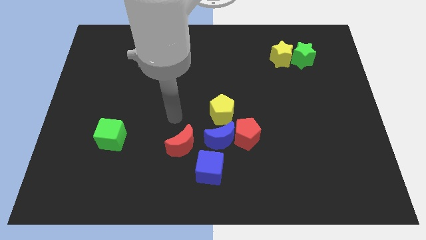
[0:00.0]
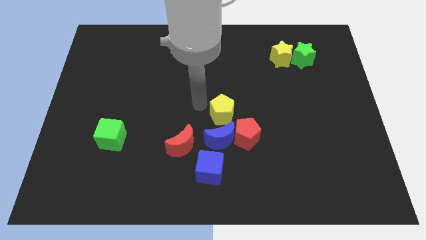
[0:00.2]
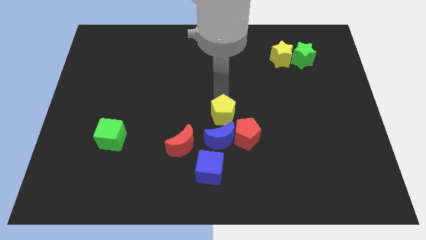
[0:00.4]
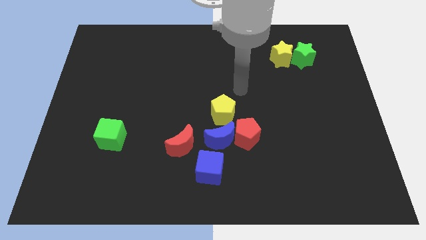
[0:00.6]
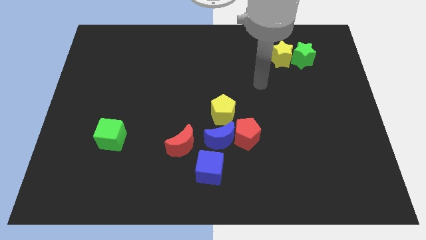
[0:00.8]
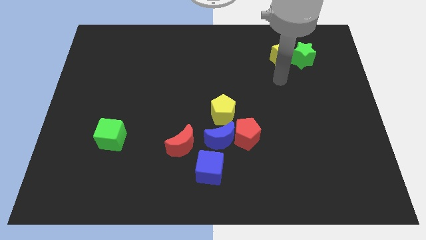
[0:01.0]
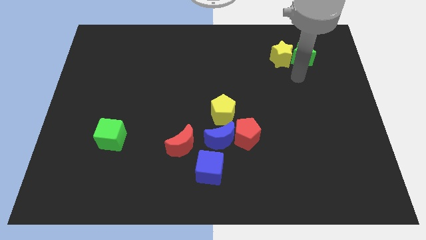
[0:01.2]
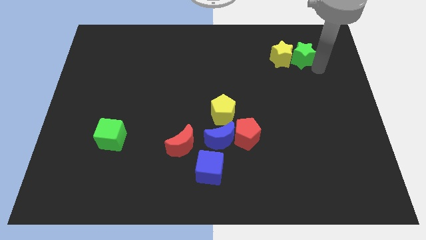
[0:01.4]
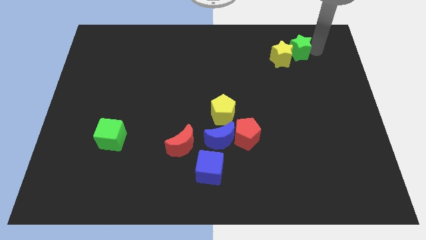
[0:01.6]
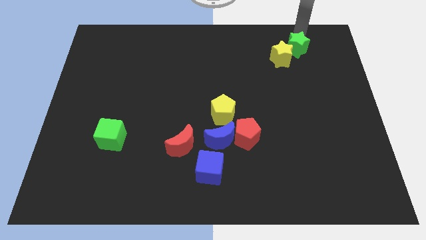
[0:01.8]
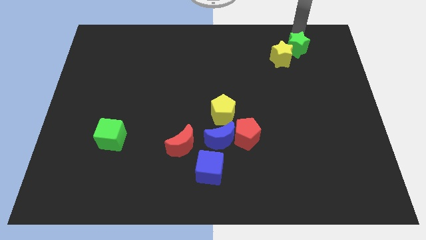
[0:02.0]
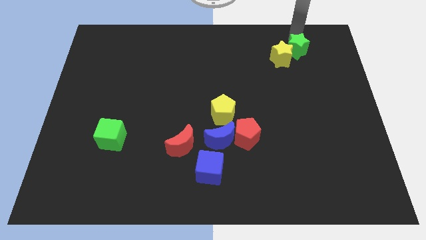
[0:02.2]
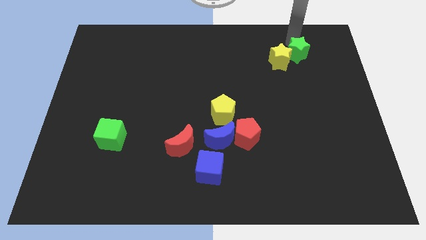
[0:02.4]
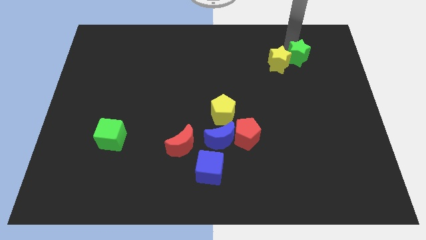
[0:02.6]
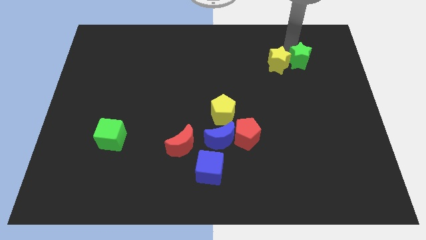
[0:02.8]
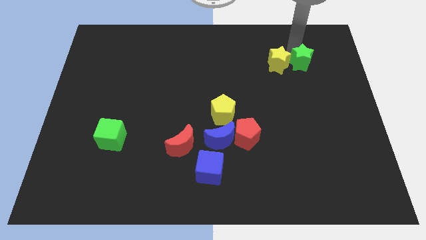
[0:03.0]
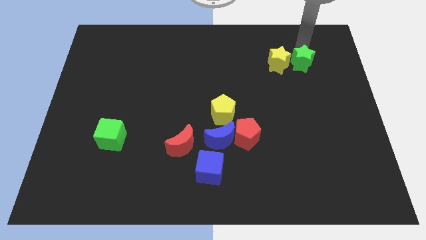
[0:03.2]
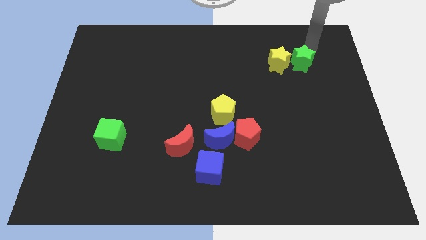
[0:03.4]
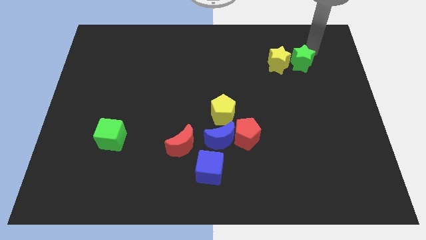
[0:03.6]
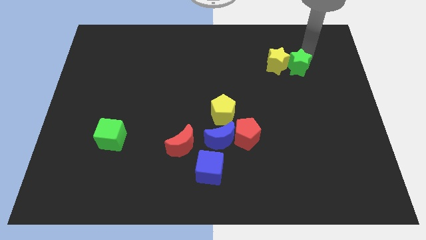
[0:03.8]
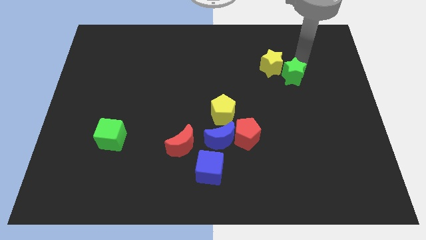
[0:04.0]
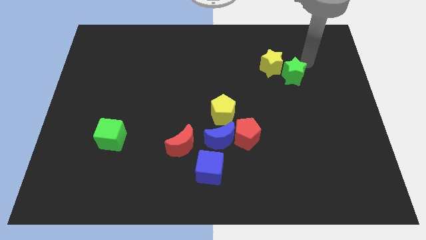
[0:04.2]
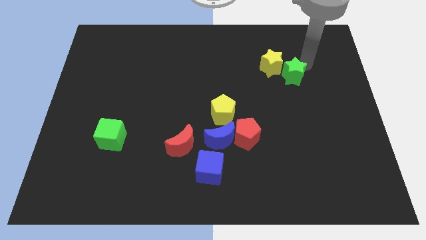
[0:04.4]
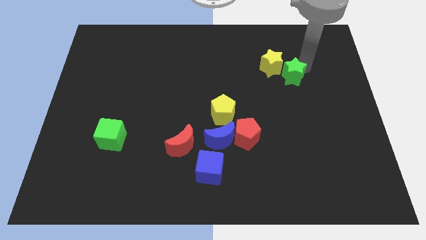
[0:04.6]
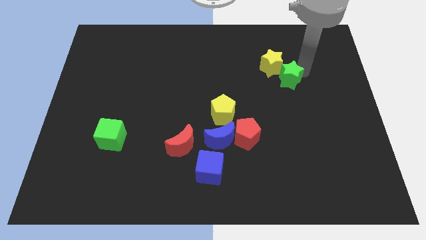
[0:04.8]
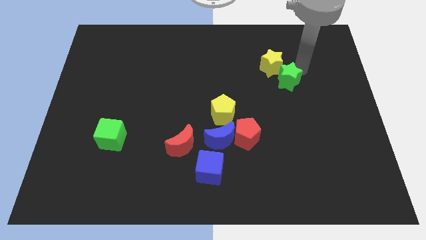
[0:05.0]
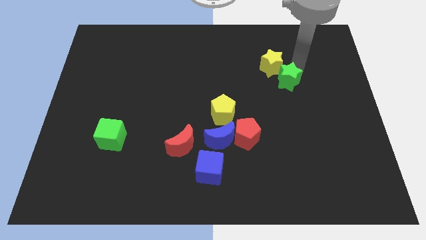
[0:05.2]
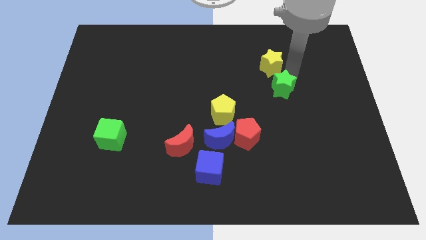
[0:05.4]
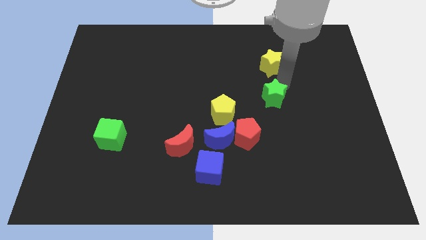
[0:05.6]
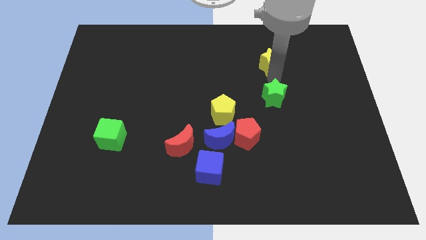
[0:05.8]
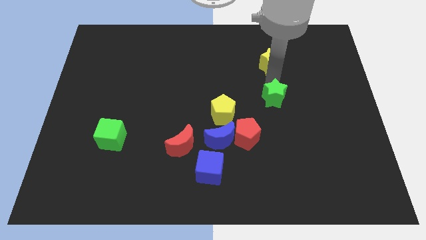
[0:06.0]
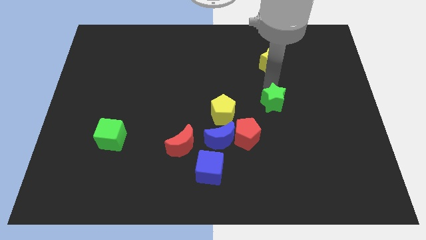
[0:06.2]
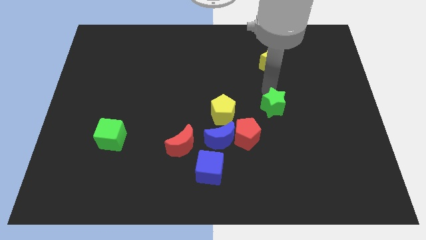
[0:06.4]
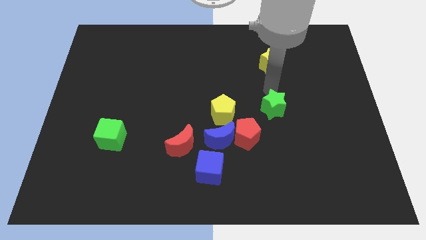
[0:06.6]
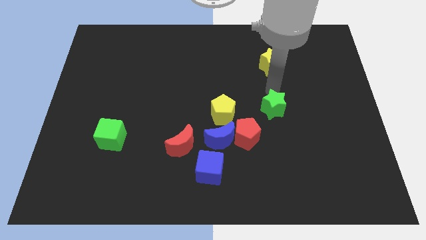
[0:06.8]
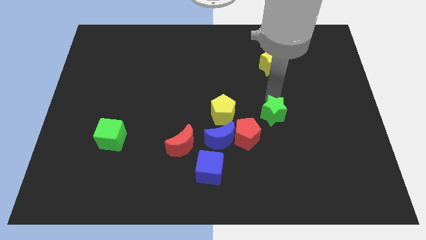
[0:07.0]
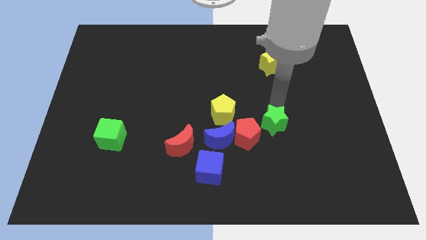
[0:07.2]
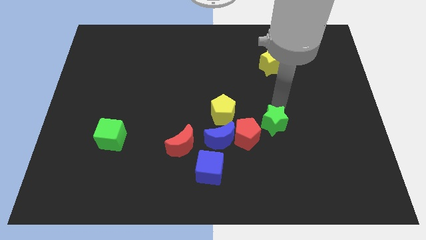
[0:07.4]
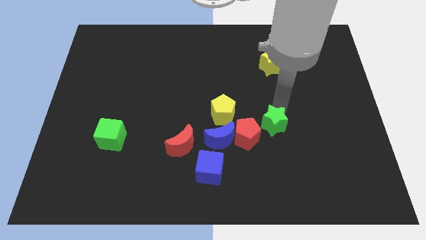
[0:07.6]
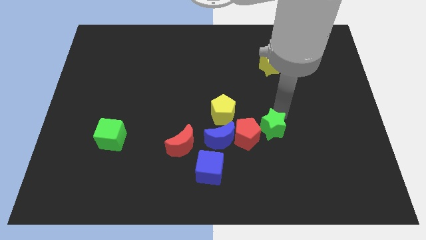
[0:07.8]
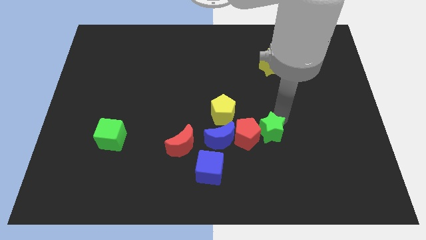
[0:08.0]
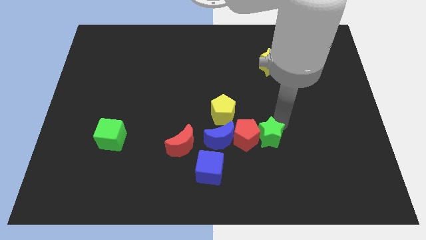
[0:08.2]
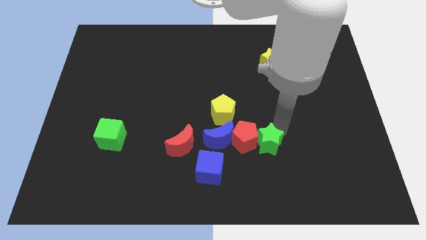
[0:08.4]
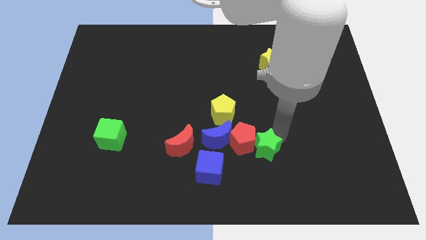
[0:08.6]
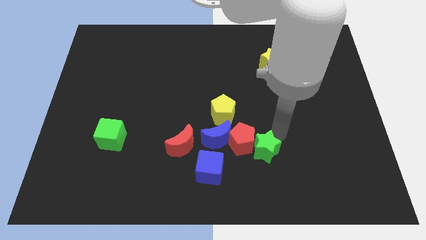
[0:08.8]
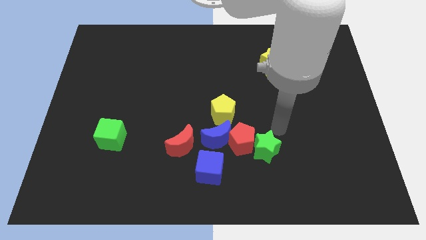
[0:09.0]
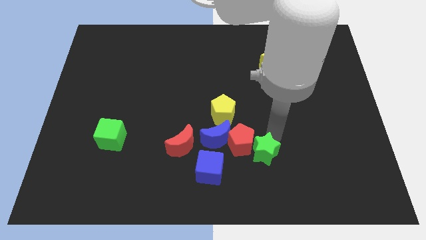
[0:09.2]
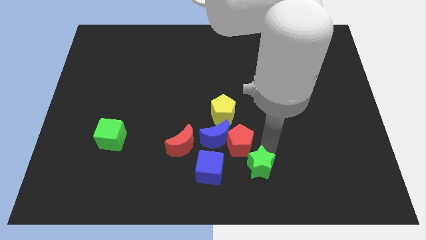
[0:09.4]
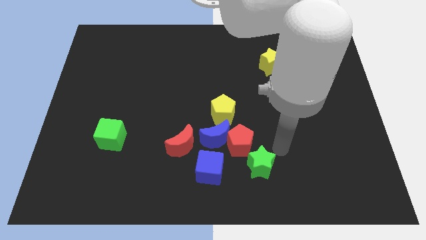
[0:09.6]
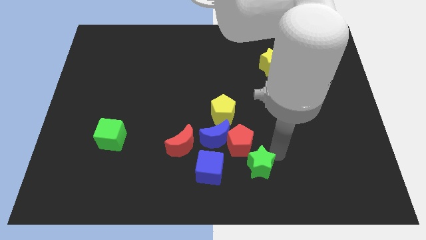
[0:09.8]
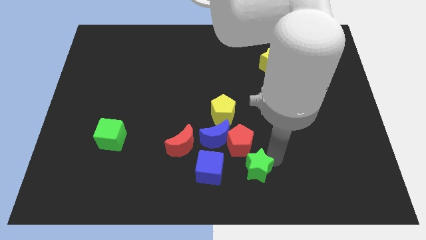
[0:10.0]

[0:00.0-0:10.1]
put the green star to the bottom side

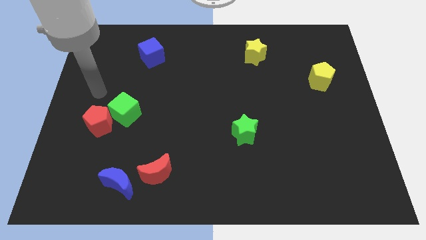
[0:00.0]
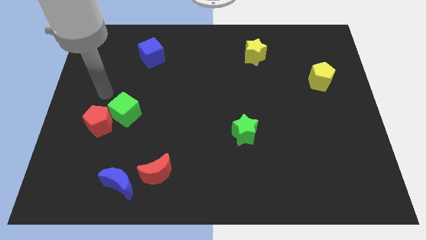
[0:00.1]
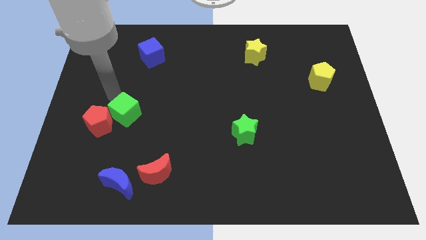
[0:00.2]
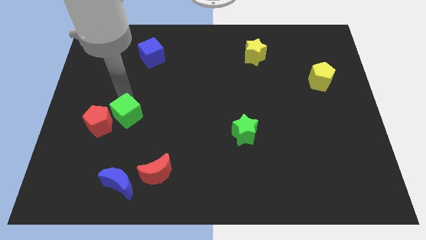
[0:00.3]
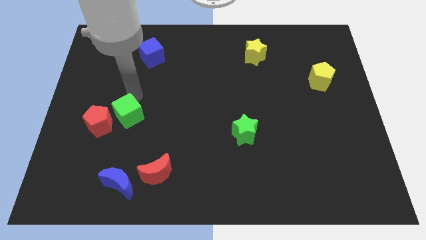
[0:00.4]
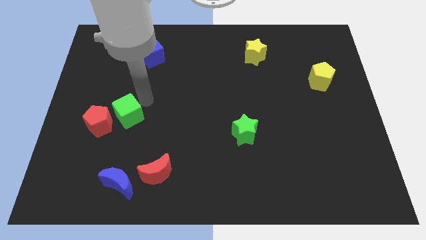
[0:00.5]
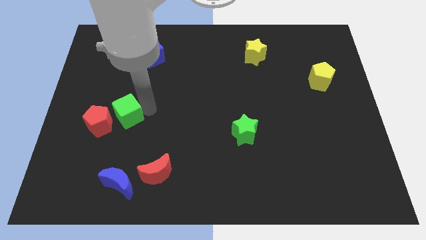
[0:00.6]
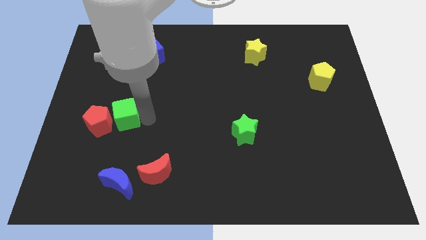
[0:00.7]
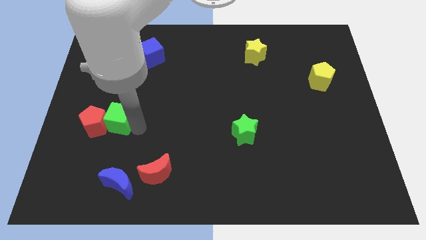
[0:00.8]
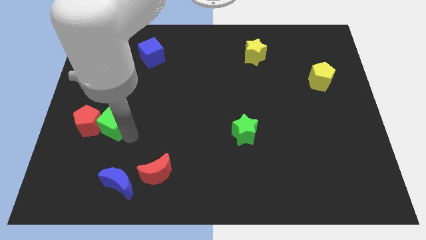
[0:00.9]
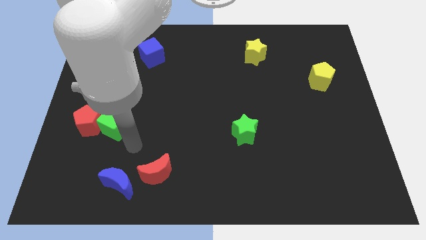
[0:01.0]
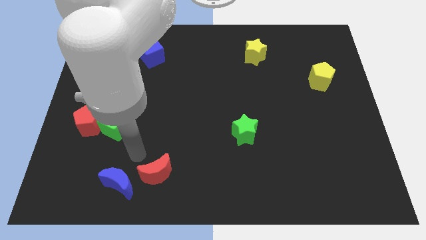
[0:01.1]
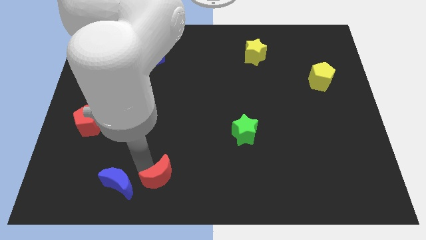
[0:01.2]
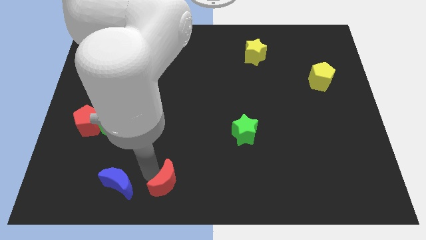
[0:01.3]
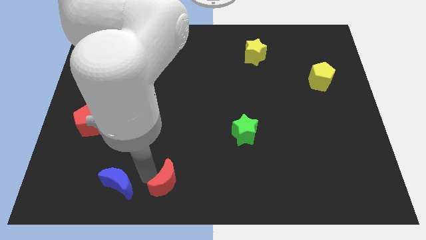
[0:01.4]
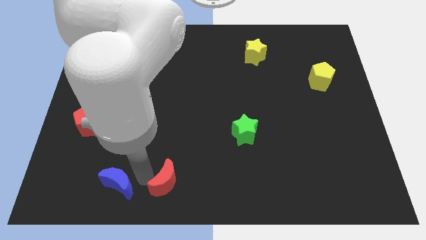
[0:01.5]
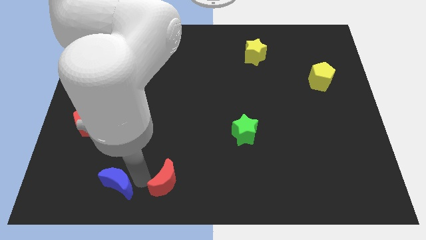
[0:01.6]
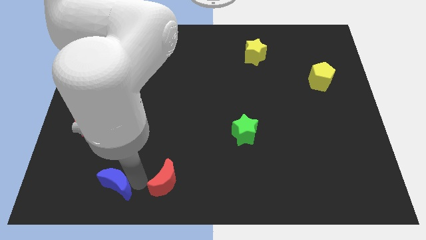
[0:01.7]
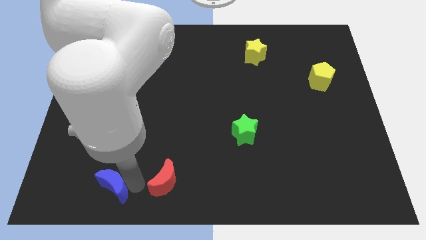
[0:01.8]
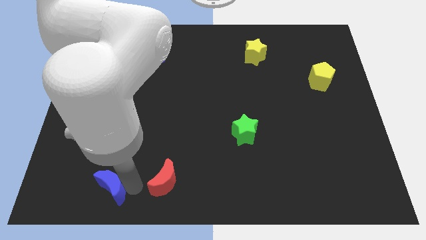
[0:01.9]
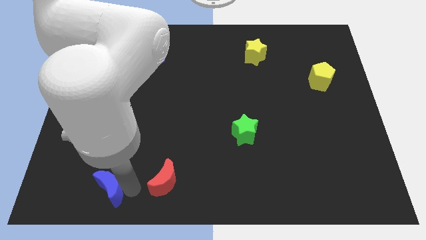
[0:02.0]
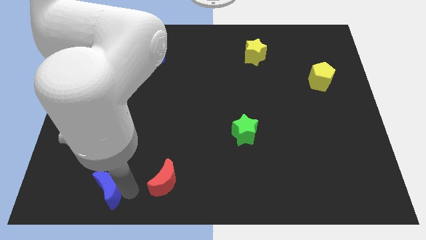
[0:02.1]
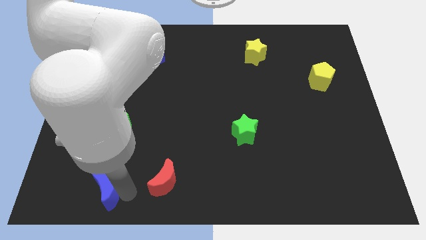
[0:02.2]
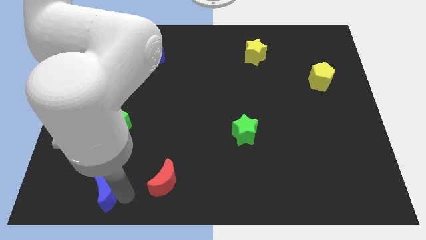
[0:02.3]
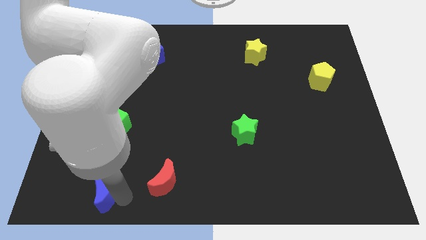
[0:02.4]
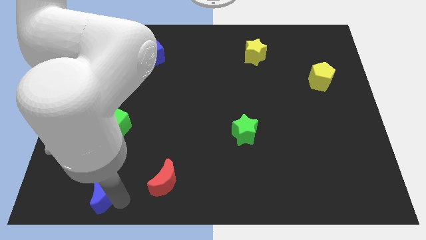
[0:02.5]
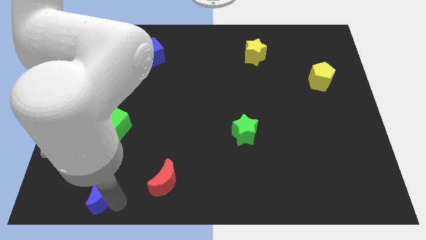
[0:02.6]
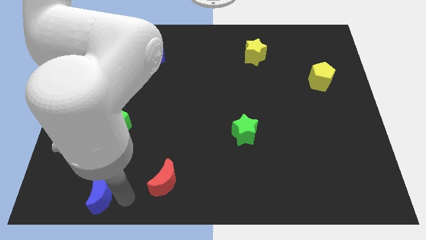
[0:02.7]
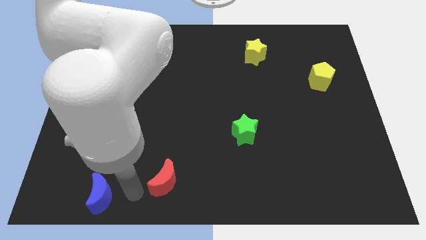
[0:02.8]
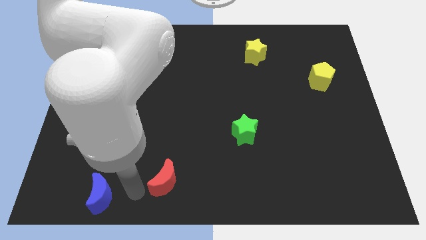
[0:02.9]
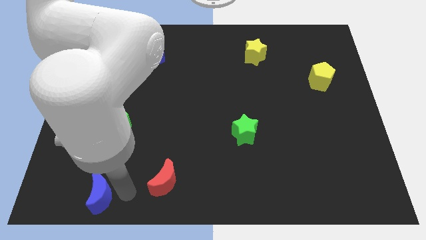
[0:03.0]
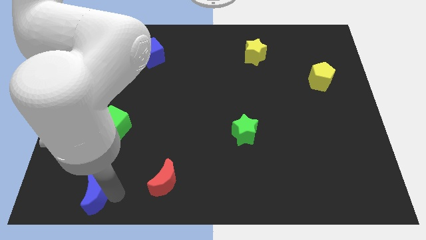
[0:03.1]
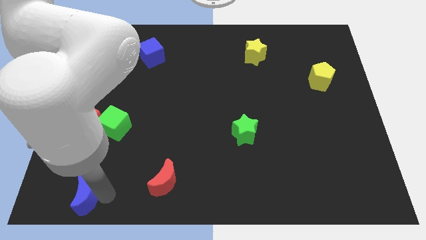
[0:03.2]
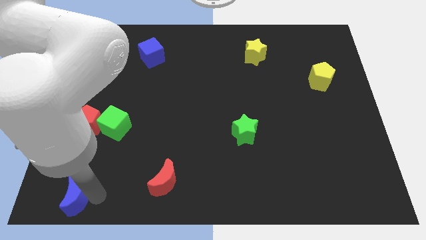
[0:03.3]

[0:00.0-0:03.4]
move the blue moon to the lower left corner
